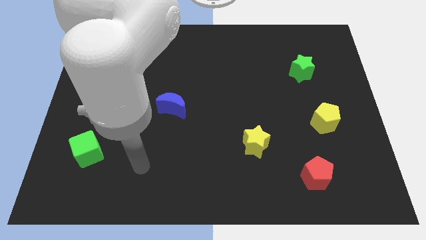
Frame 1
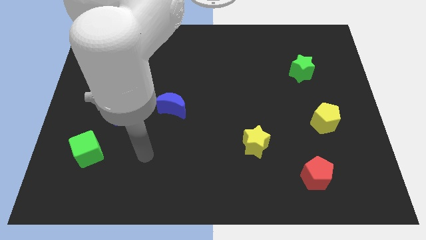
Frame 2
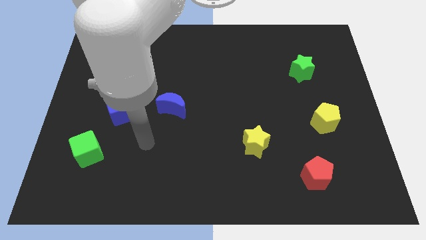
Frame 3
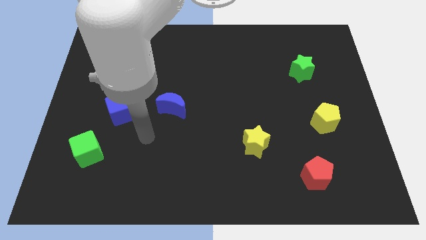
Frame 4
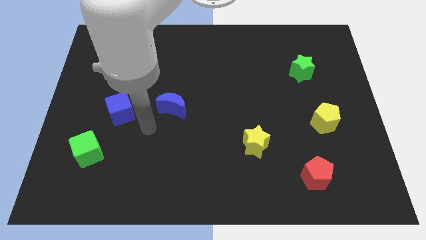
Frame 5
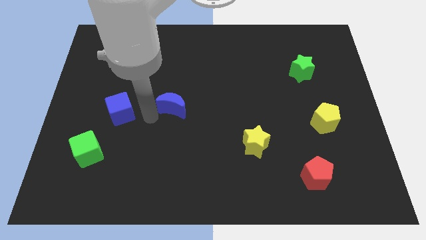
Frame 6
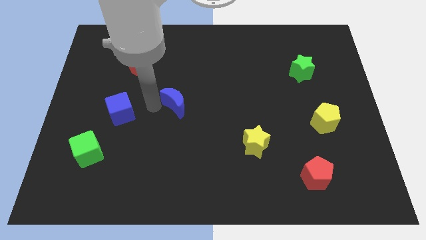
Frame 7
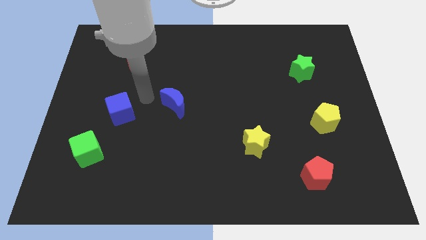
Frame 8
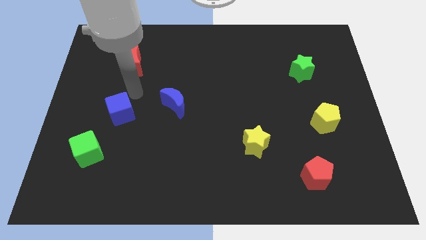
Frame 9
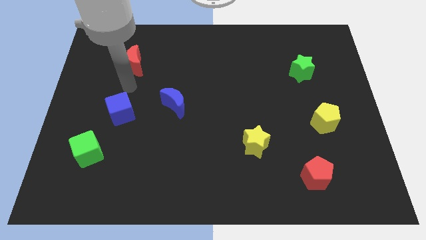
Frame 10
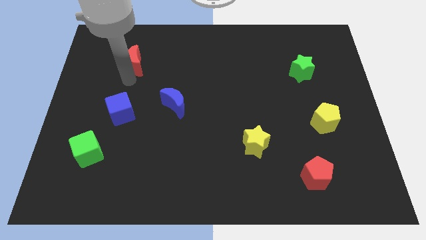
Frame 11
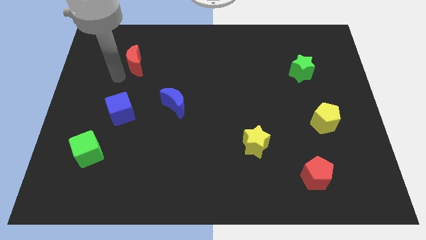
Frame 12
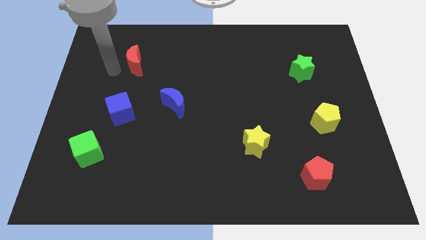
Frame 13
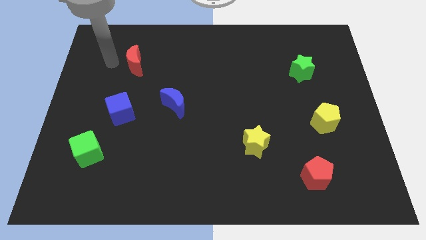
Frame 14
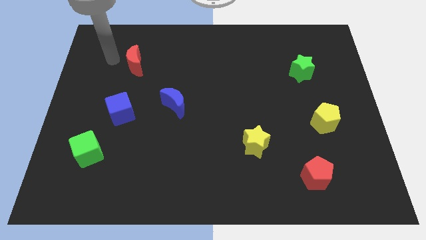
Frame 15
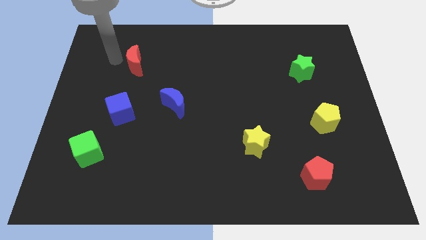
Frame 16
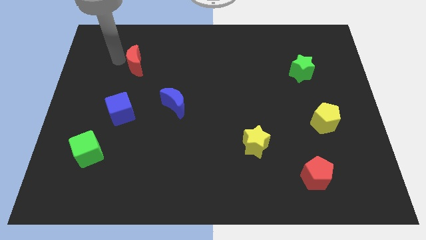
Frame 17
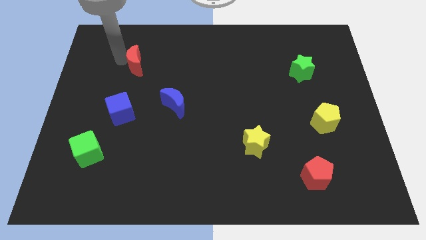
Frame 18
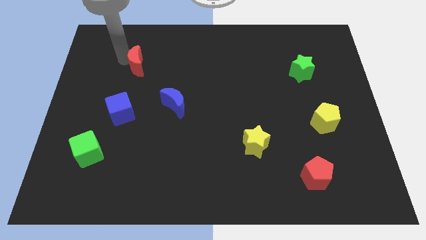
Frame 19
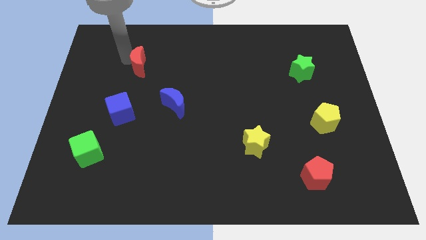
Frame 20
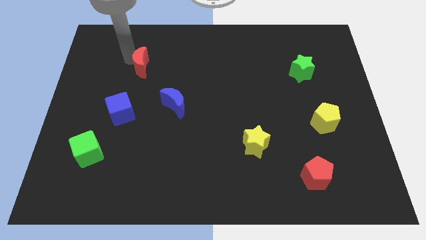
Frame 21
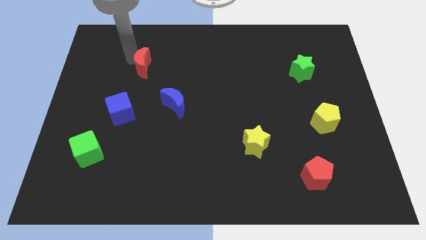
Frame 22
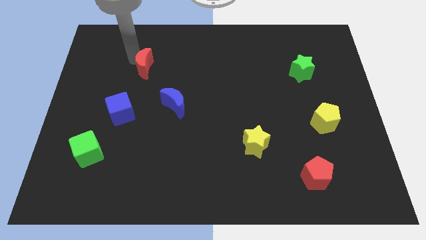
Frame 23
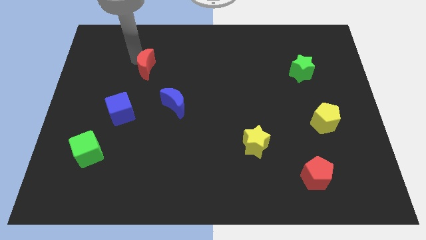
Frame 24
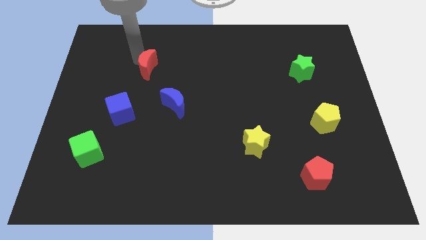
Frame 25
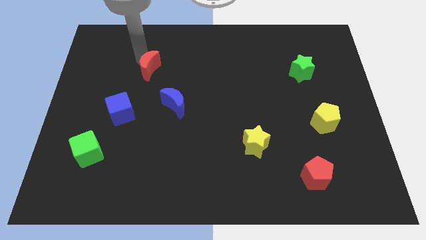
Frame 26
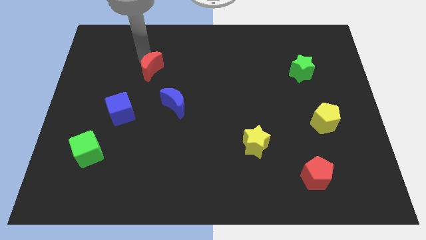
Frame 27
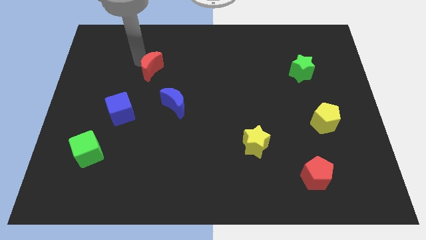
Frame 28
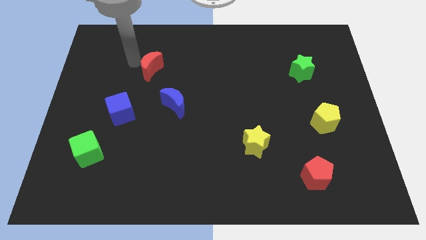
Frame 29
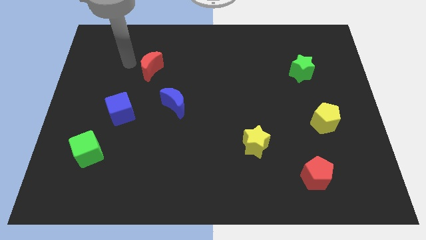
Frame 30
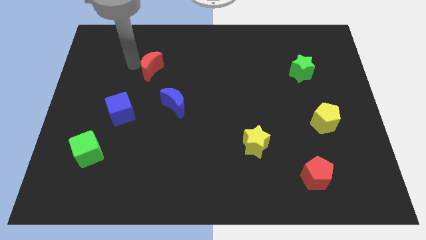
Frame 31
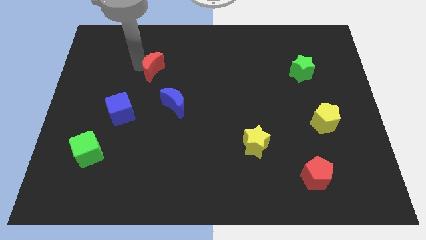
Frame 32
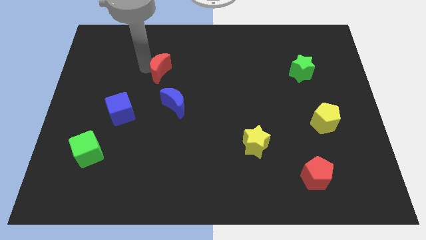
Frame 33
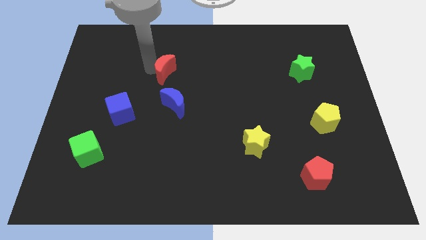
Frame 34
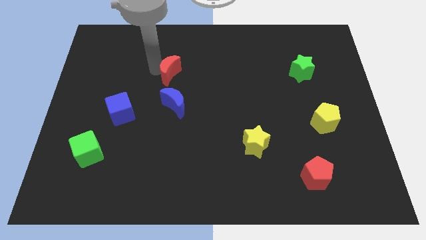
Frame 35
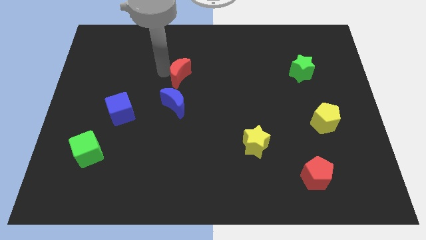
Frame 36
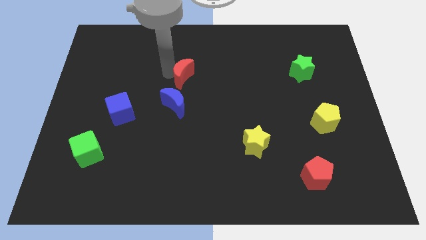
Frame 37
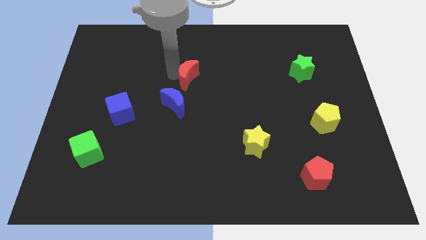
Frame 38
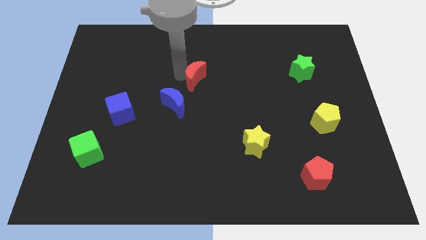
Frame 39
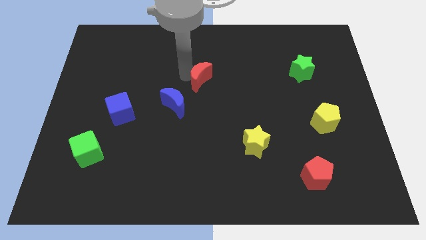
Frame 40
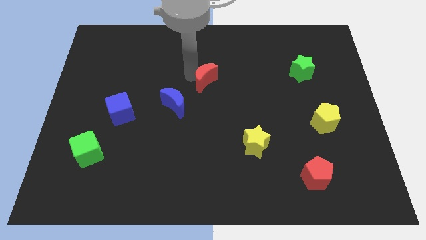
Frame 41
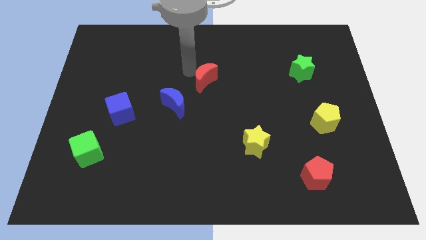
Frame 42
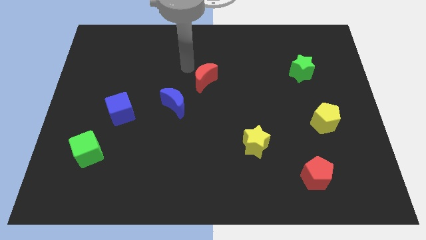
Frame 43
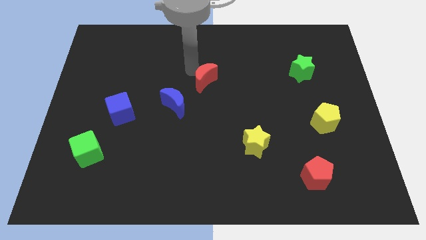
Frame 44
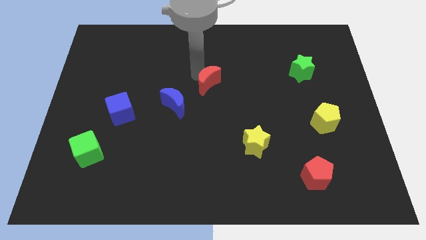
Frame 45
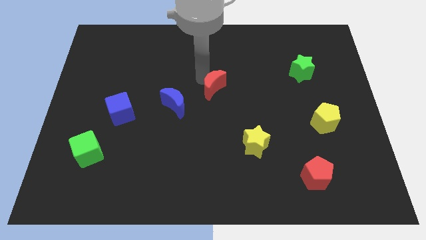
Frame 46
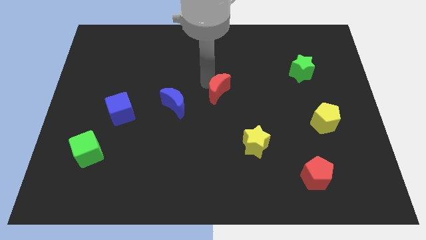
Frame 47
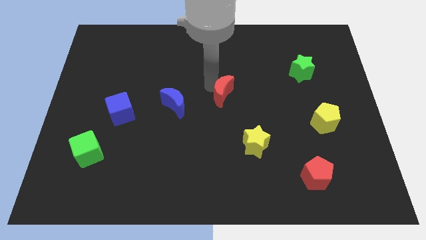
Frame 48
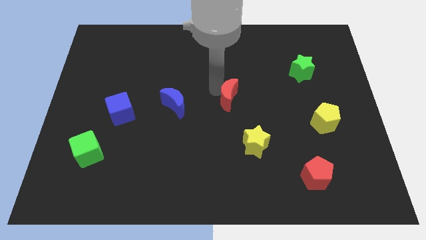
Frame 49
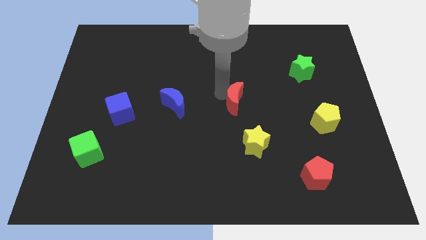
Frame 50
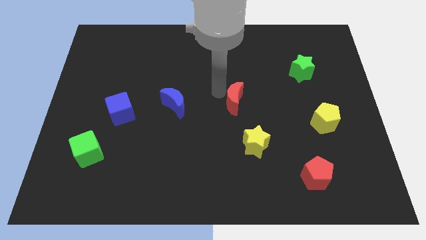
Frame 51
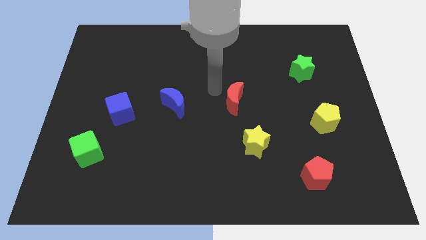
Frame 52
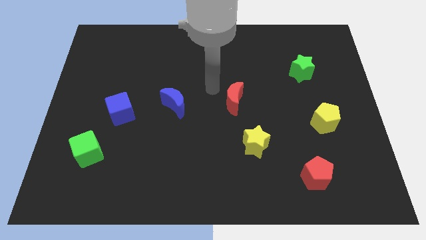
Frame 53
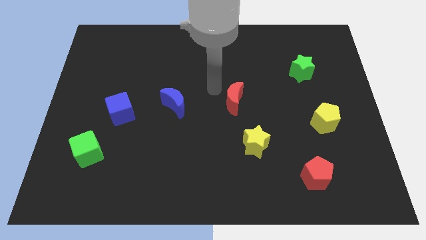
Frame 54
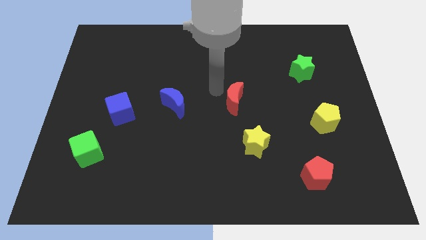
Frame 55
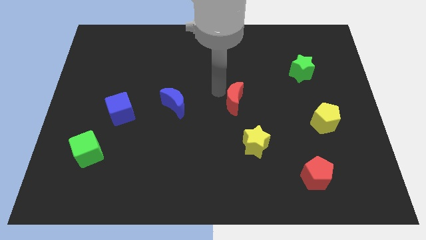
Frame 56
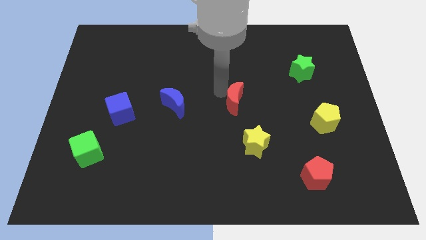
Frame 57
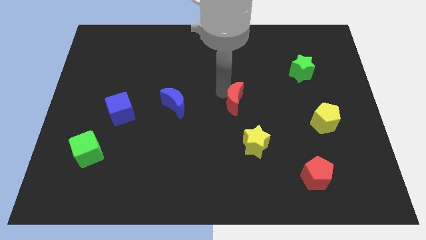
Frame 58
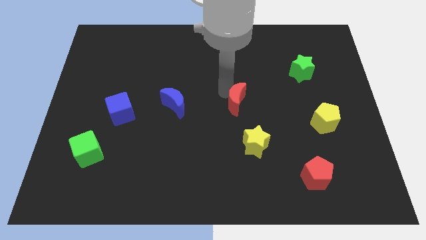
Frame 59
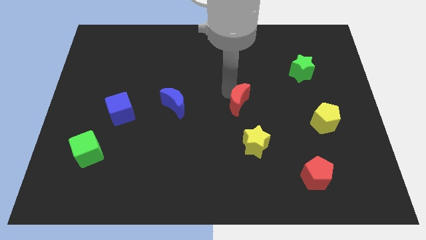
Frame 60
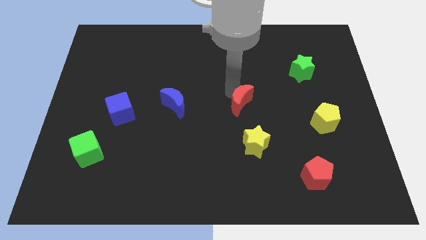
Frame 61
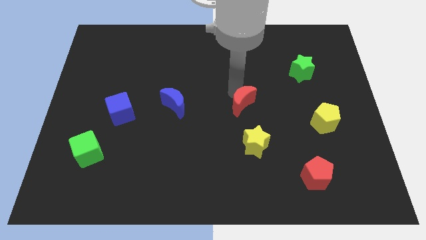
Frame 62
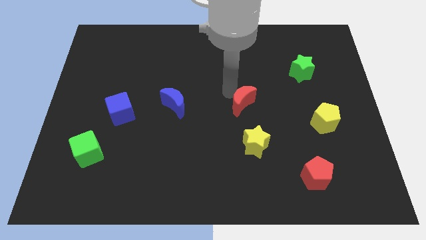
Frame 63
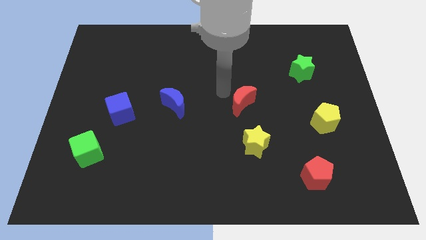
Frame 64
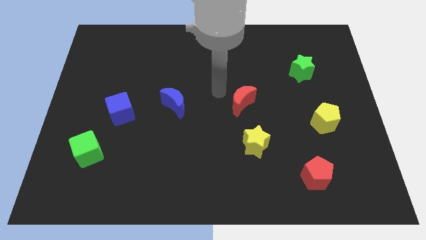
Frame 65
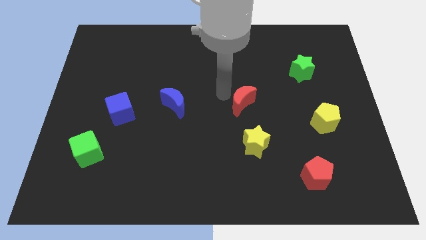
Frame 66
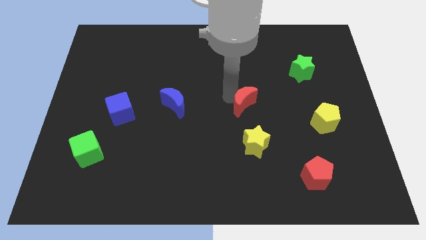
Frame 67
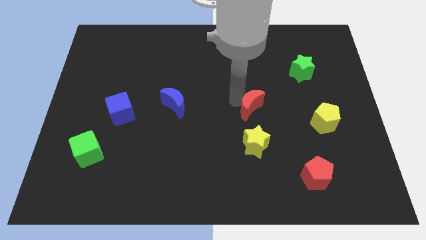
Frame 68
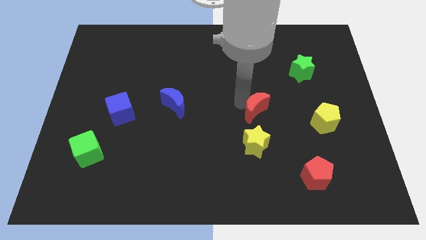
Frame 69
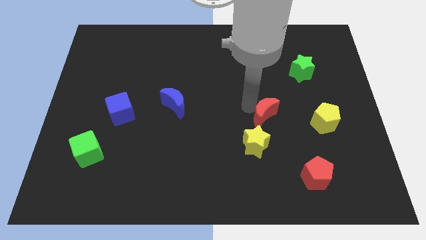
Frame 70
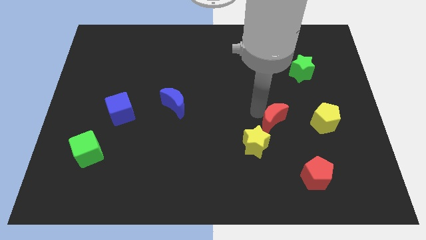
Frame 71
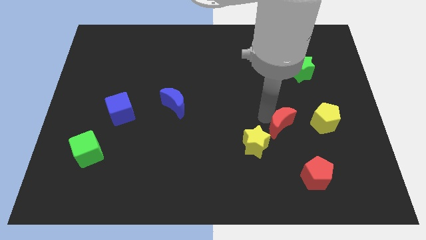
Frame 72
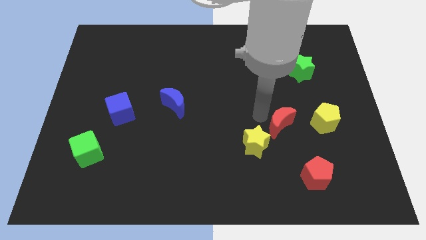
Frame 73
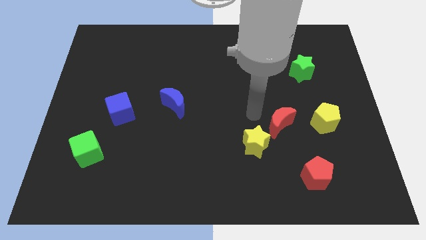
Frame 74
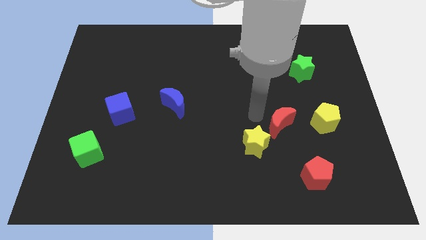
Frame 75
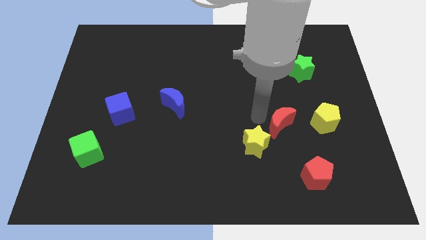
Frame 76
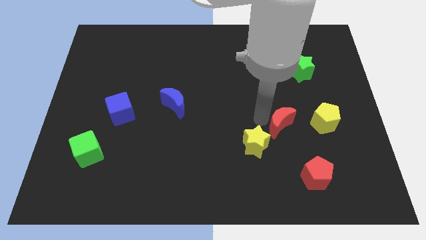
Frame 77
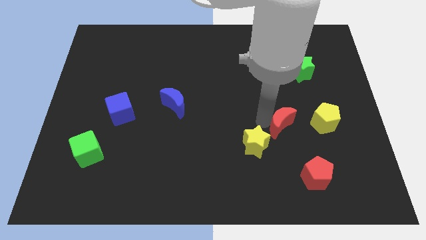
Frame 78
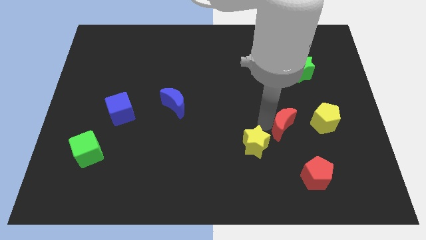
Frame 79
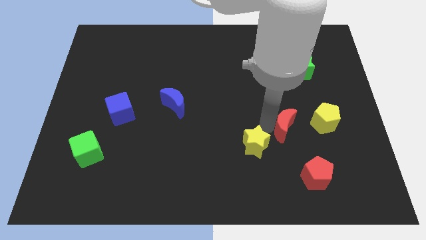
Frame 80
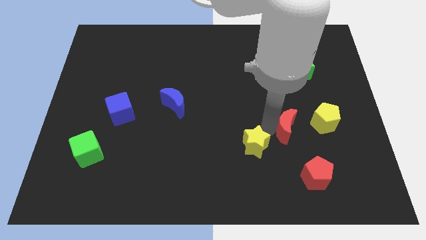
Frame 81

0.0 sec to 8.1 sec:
put the red moon to the top side of the red pentagon
